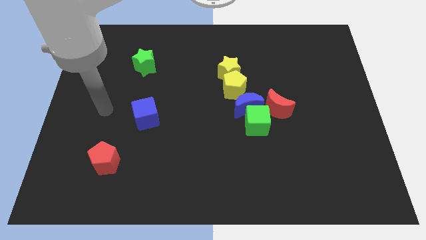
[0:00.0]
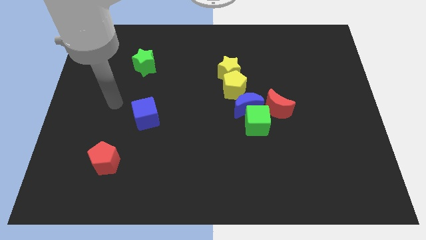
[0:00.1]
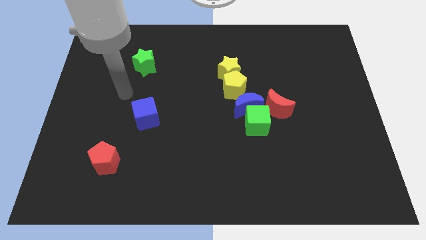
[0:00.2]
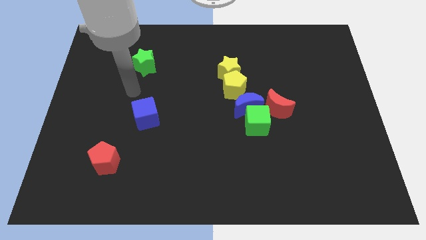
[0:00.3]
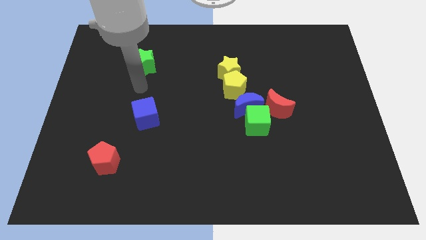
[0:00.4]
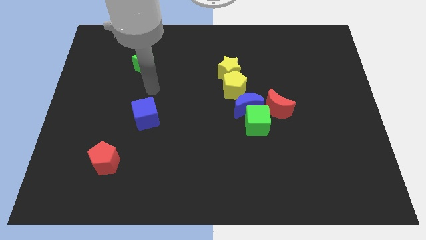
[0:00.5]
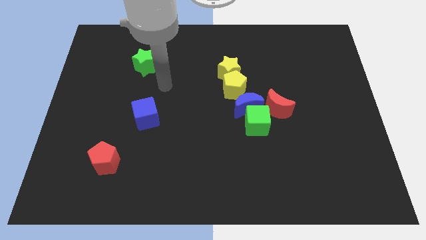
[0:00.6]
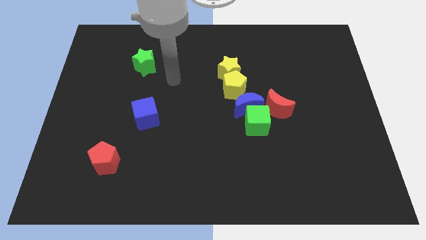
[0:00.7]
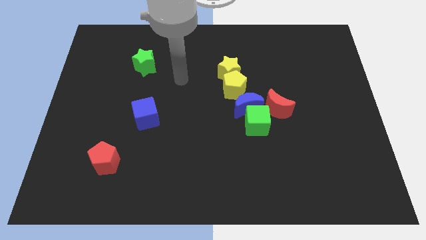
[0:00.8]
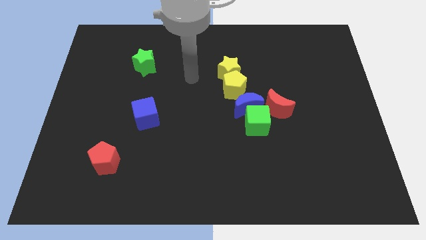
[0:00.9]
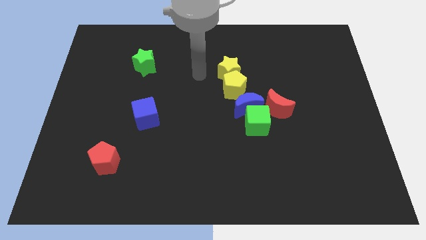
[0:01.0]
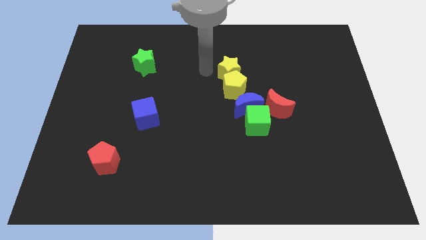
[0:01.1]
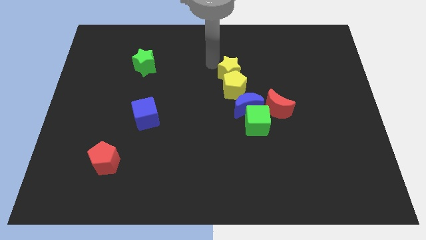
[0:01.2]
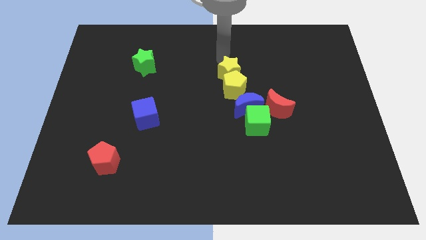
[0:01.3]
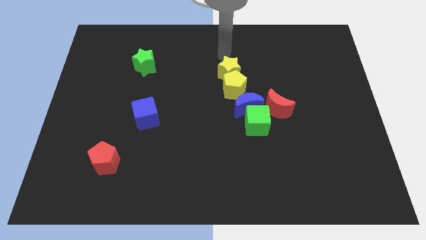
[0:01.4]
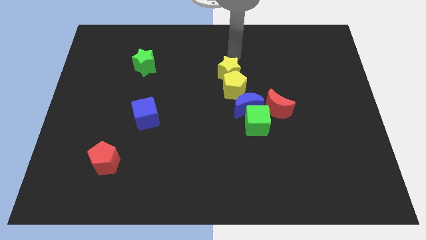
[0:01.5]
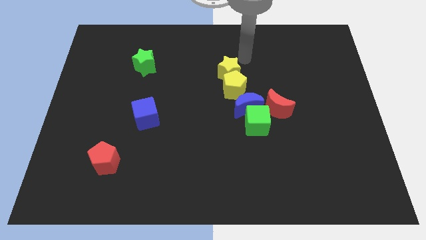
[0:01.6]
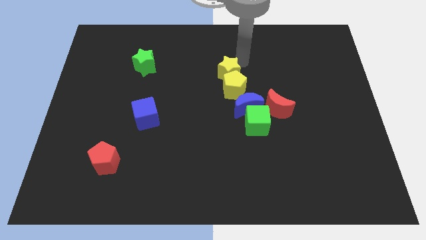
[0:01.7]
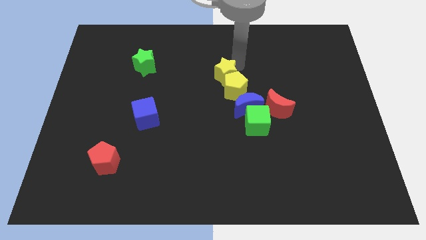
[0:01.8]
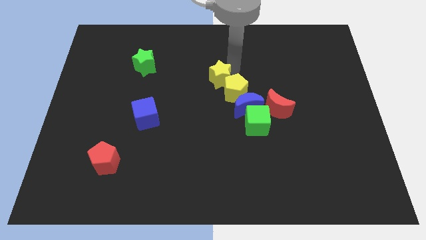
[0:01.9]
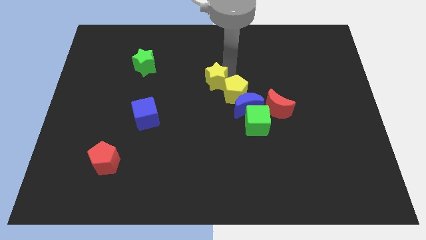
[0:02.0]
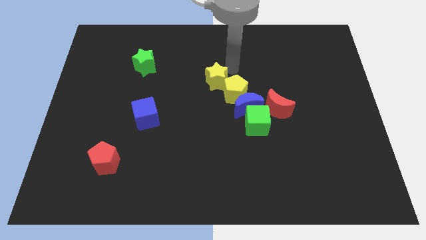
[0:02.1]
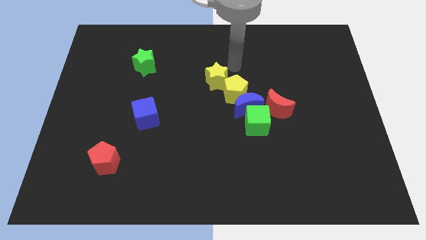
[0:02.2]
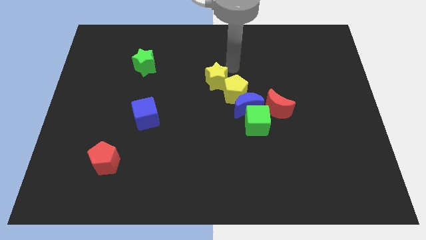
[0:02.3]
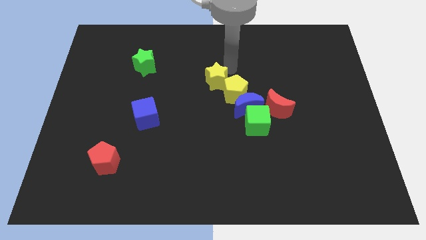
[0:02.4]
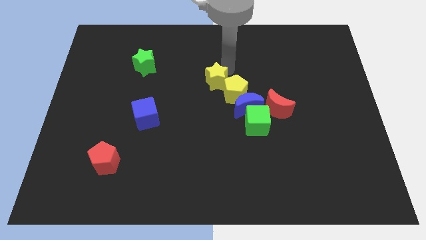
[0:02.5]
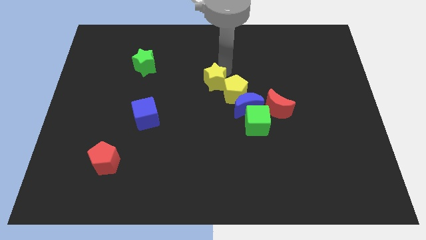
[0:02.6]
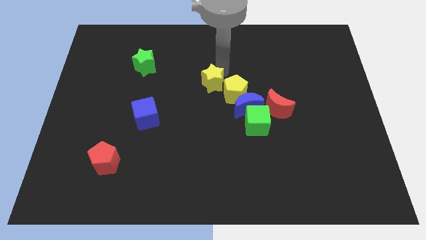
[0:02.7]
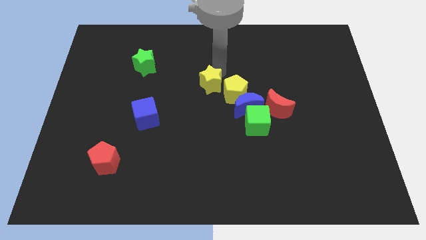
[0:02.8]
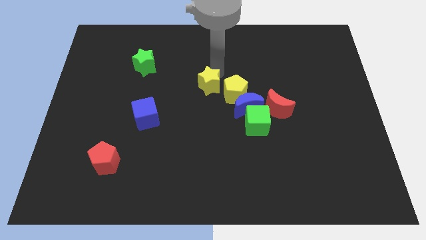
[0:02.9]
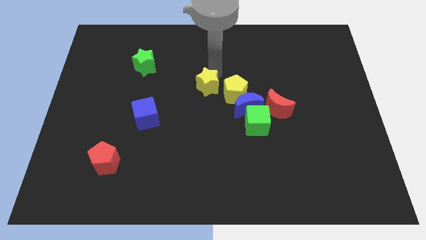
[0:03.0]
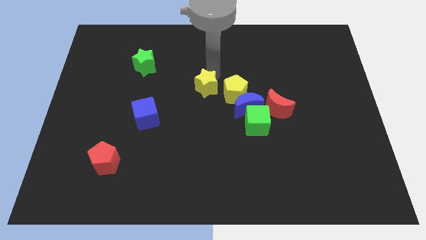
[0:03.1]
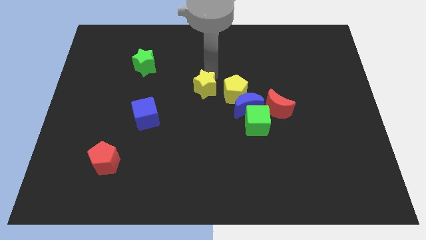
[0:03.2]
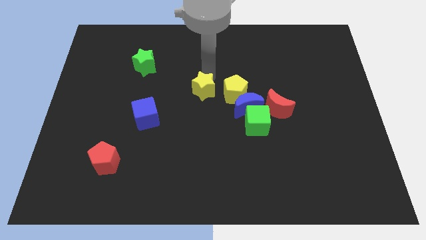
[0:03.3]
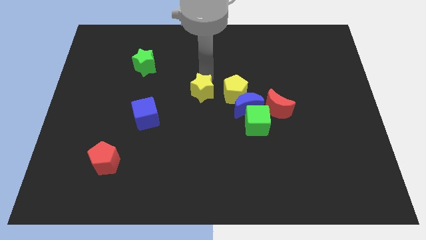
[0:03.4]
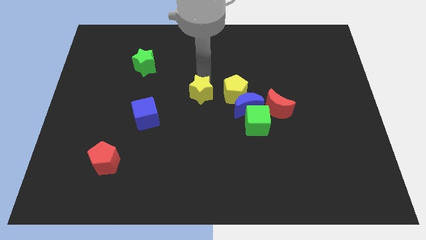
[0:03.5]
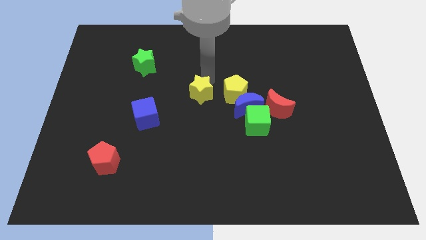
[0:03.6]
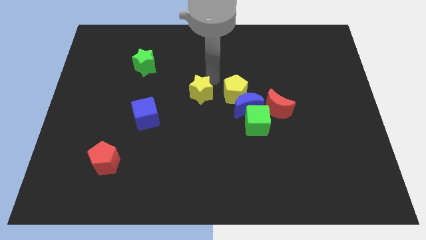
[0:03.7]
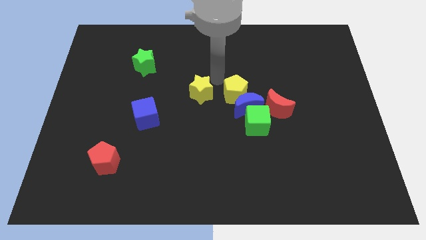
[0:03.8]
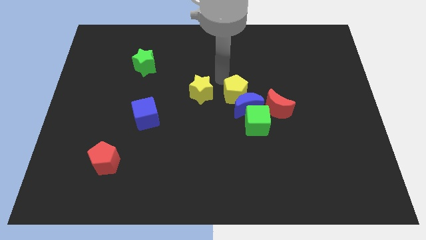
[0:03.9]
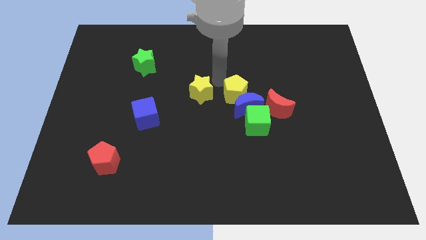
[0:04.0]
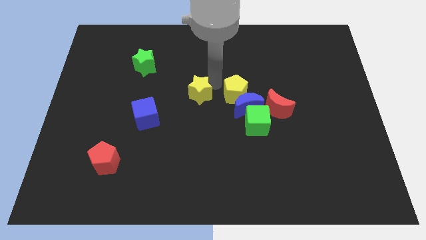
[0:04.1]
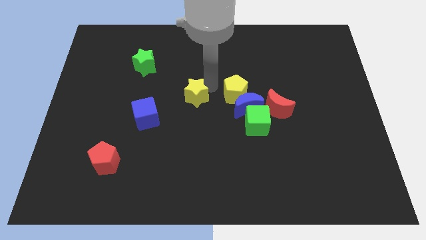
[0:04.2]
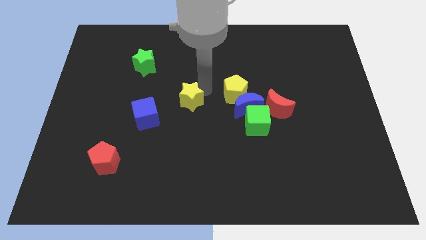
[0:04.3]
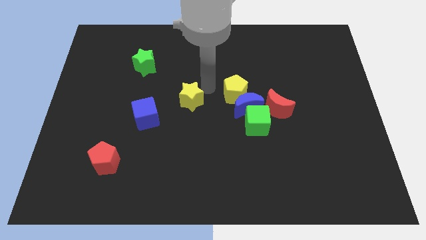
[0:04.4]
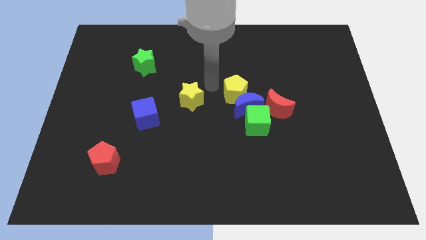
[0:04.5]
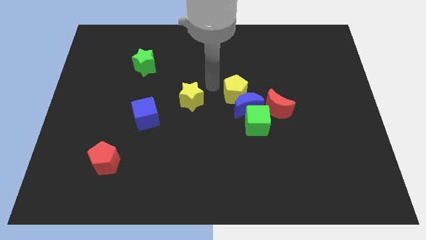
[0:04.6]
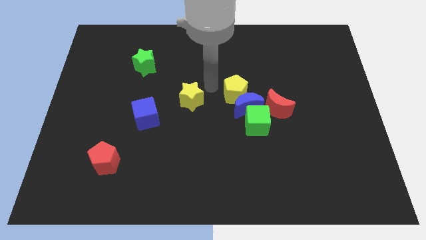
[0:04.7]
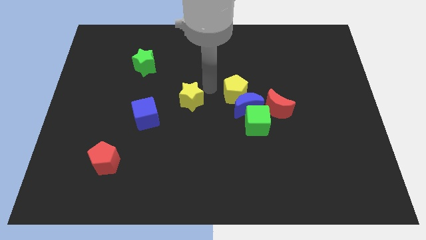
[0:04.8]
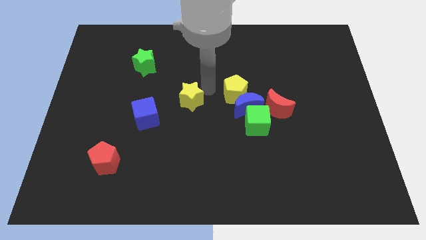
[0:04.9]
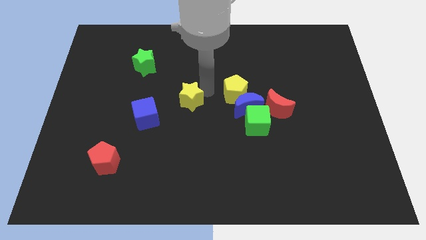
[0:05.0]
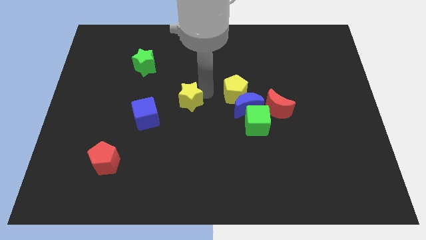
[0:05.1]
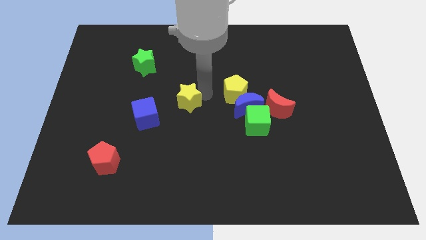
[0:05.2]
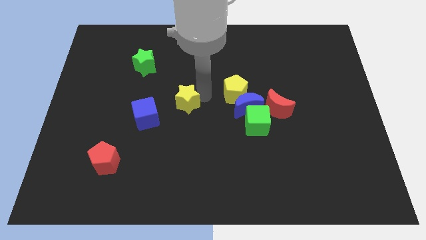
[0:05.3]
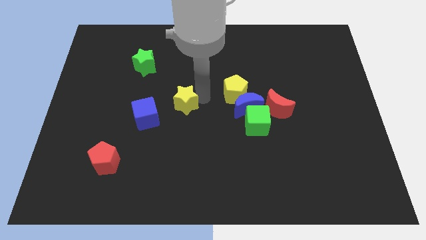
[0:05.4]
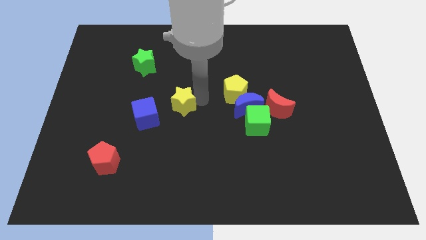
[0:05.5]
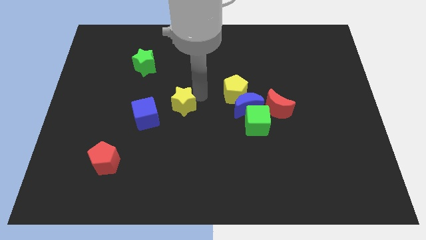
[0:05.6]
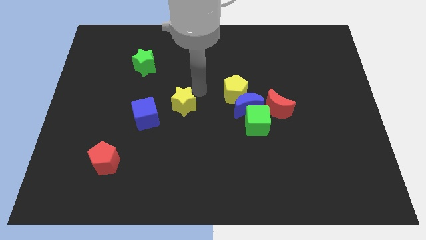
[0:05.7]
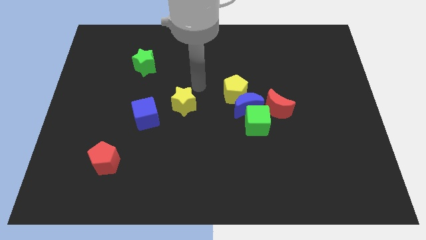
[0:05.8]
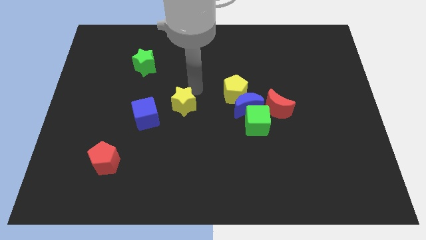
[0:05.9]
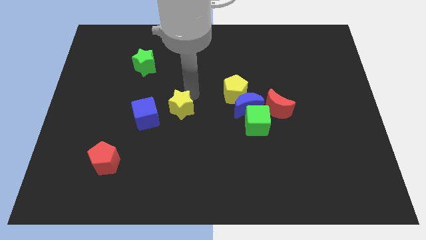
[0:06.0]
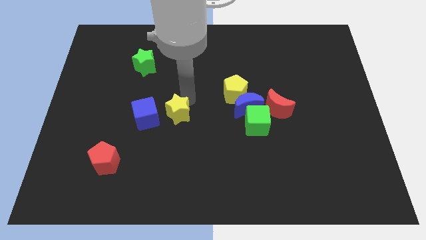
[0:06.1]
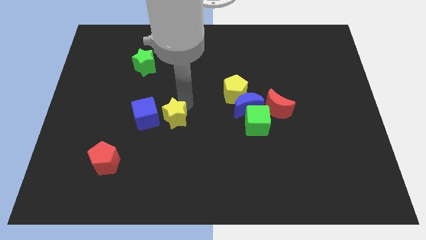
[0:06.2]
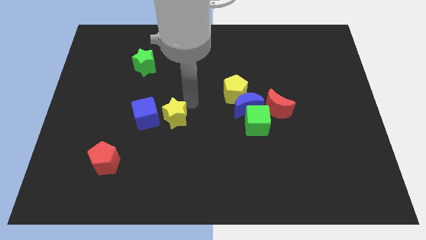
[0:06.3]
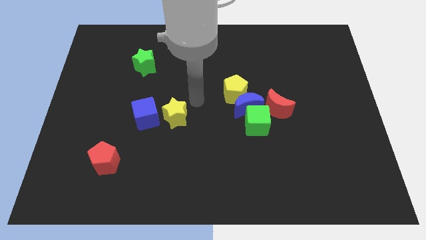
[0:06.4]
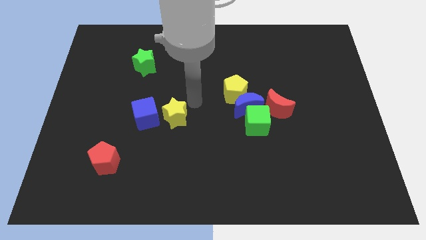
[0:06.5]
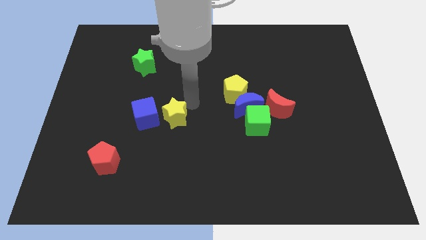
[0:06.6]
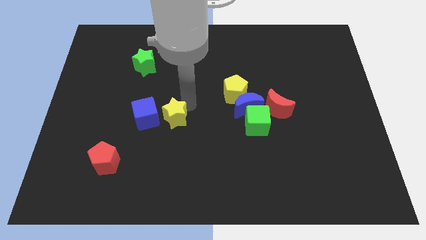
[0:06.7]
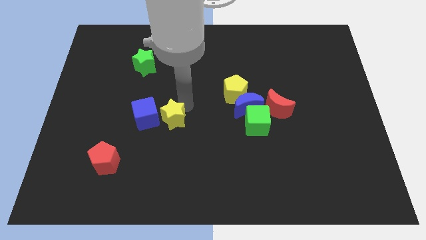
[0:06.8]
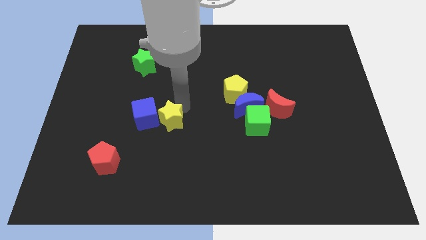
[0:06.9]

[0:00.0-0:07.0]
slide the yellow star down and then to the left

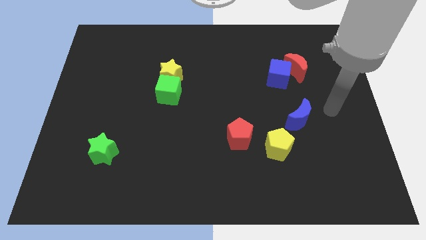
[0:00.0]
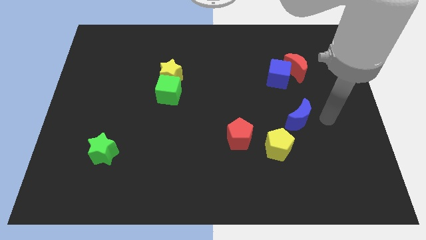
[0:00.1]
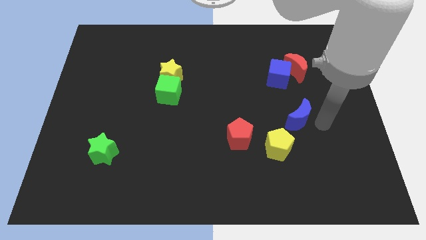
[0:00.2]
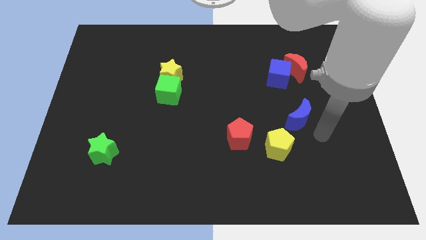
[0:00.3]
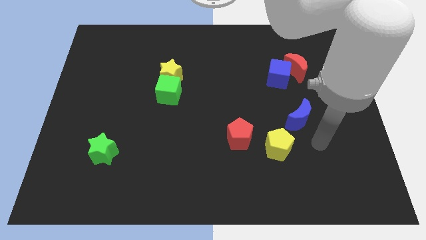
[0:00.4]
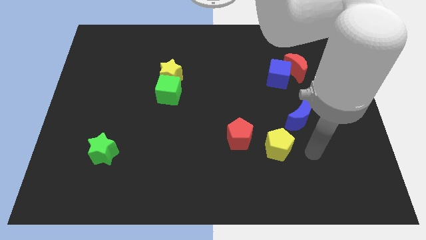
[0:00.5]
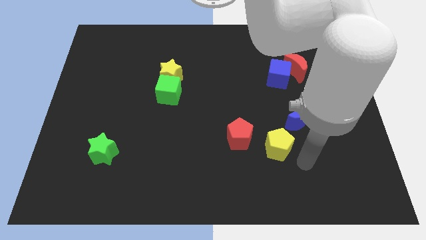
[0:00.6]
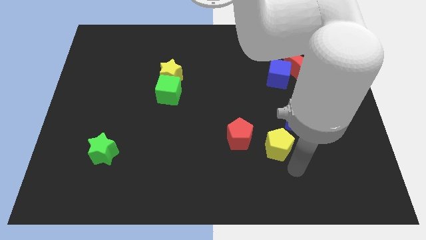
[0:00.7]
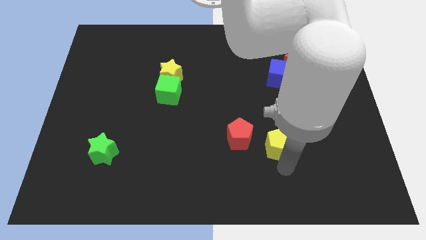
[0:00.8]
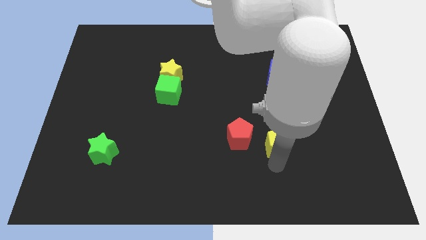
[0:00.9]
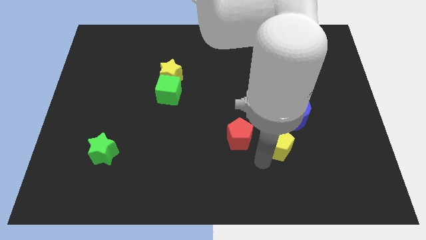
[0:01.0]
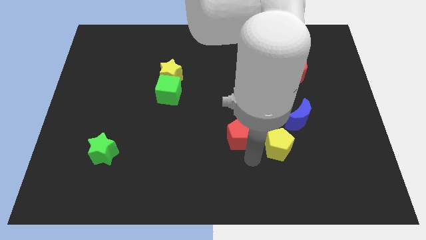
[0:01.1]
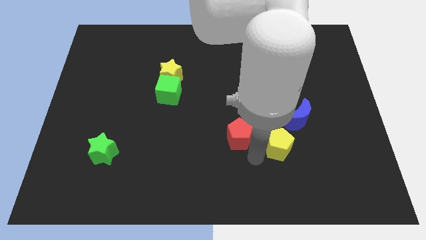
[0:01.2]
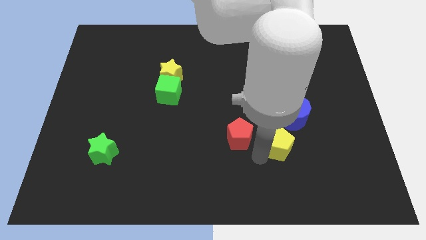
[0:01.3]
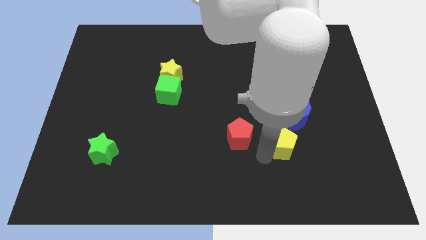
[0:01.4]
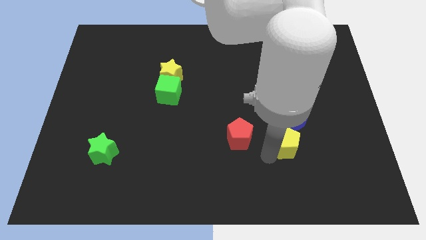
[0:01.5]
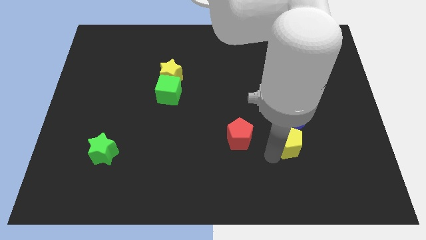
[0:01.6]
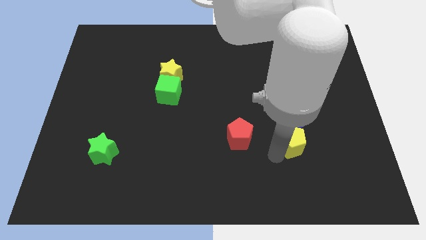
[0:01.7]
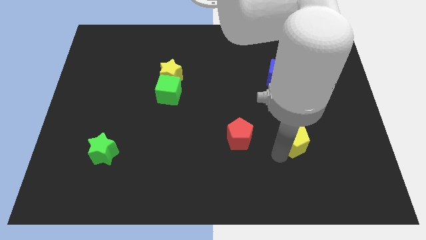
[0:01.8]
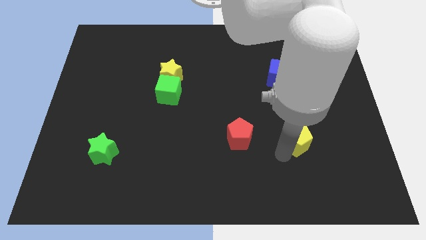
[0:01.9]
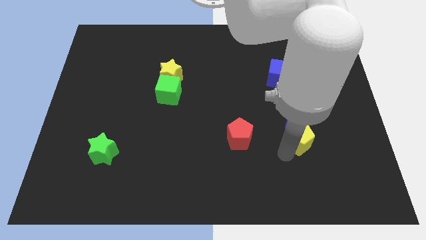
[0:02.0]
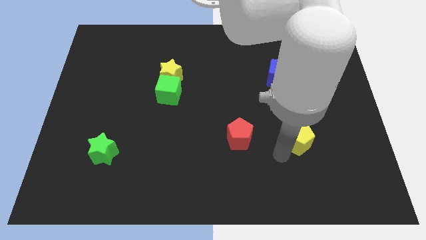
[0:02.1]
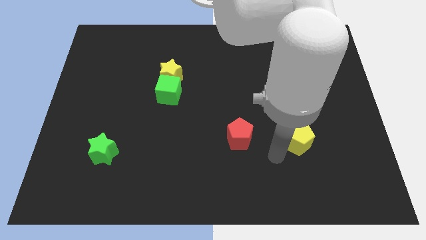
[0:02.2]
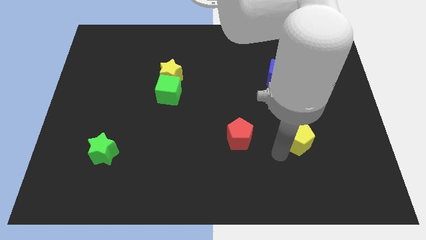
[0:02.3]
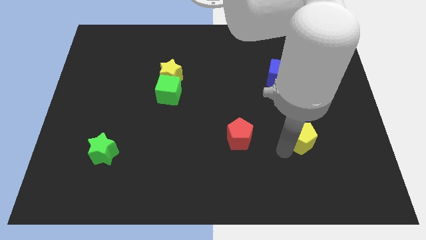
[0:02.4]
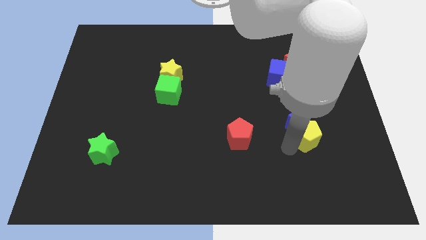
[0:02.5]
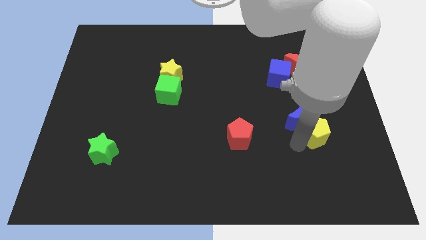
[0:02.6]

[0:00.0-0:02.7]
push the yellow pentagon a little bit up and right diagonally
